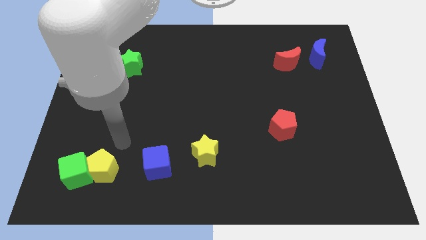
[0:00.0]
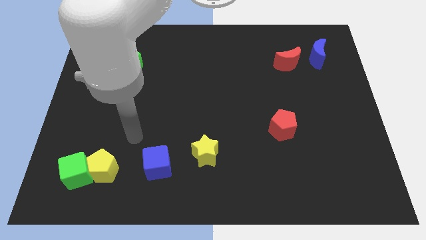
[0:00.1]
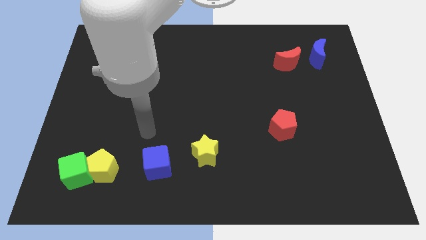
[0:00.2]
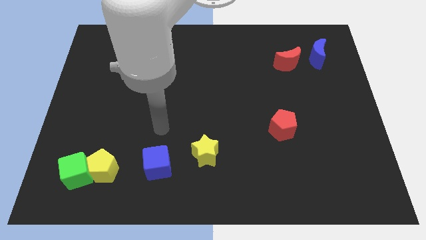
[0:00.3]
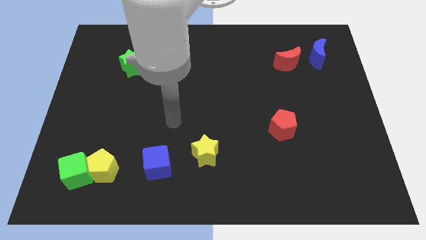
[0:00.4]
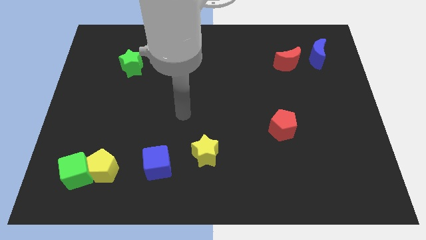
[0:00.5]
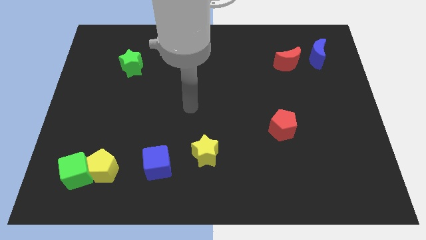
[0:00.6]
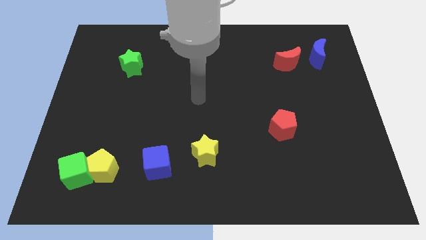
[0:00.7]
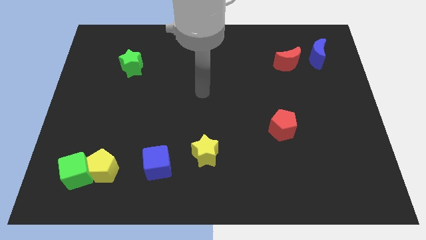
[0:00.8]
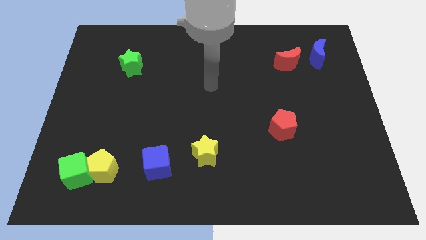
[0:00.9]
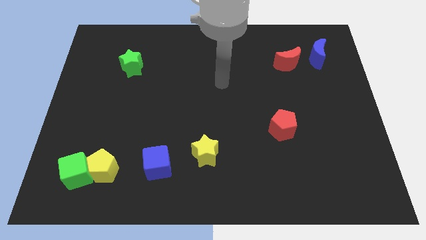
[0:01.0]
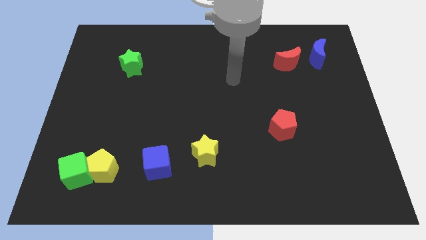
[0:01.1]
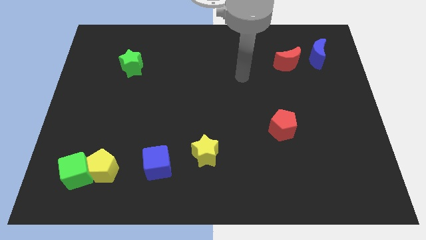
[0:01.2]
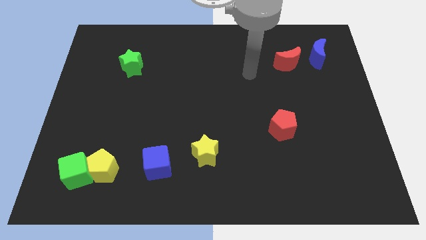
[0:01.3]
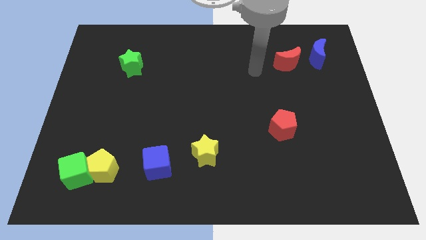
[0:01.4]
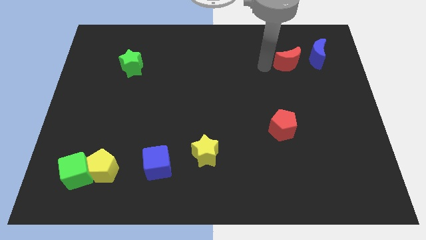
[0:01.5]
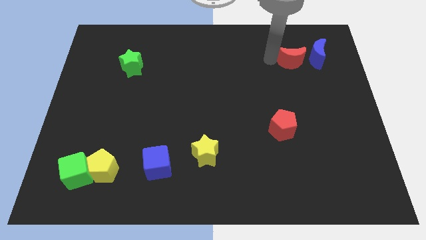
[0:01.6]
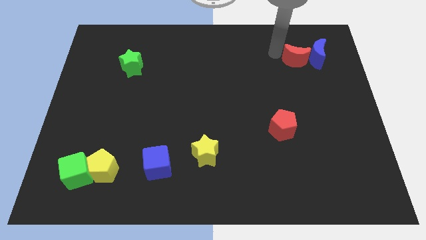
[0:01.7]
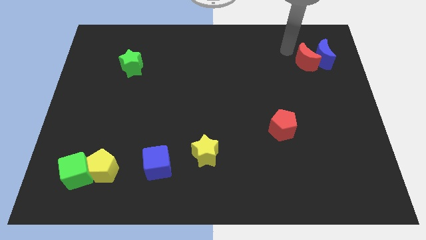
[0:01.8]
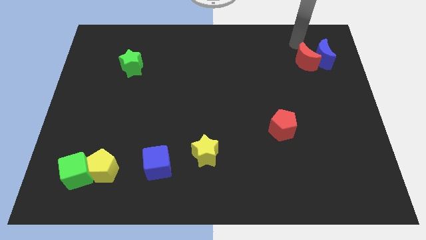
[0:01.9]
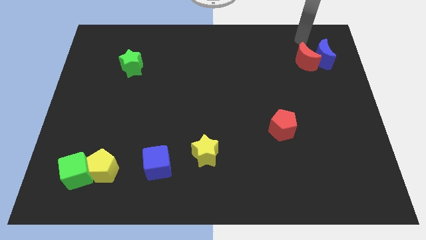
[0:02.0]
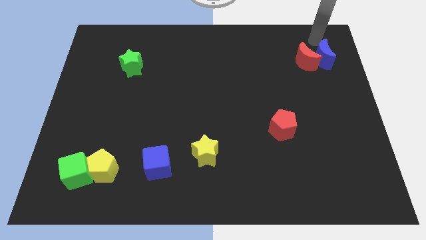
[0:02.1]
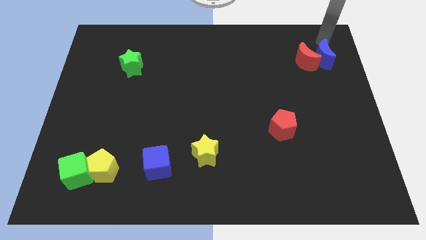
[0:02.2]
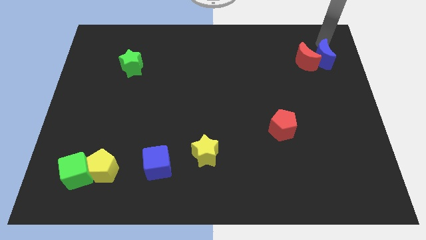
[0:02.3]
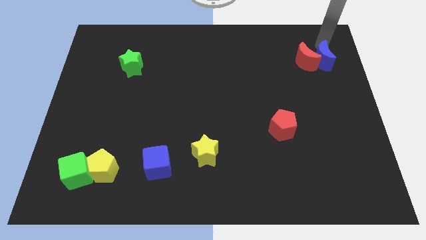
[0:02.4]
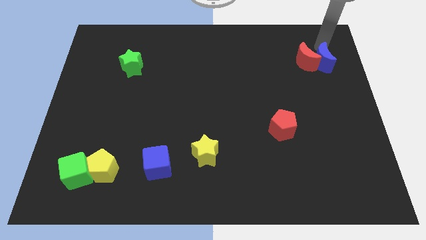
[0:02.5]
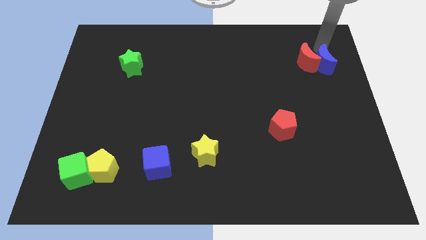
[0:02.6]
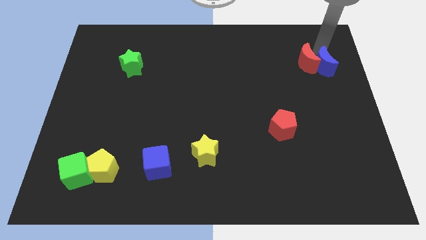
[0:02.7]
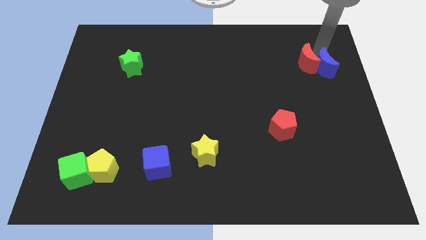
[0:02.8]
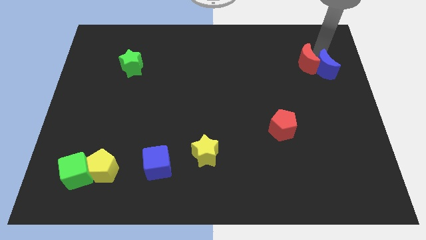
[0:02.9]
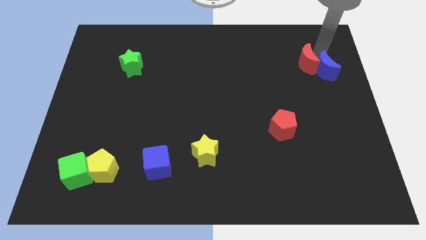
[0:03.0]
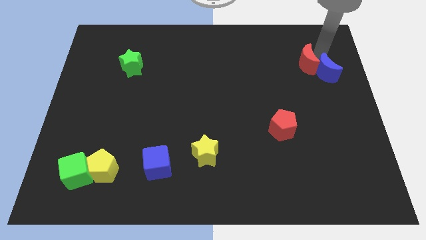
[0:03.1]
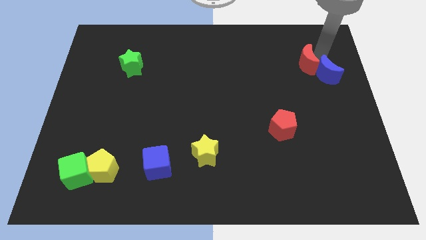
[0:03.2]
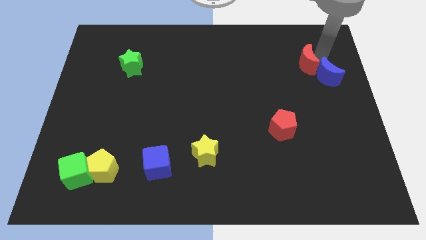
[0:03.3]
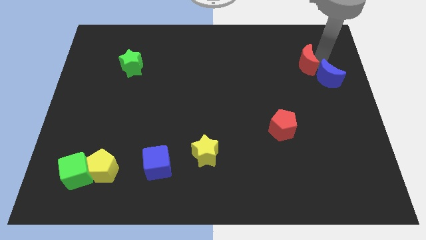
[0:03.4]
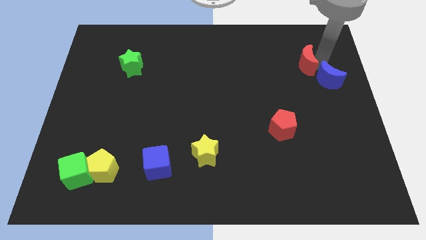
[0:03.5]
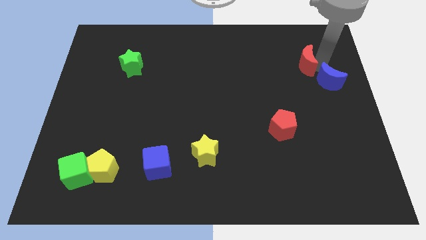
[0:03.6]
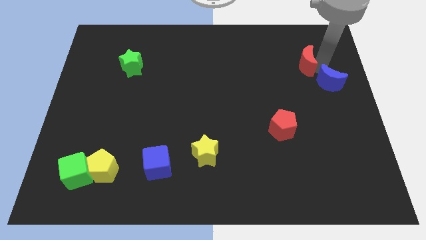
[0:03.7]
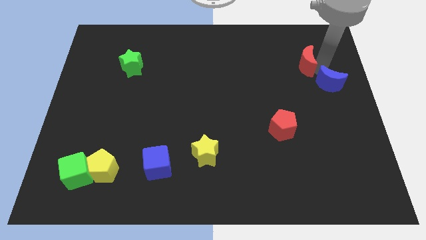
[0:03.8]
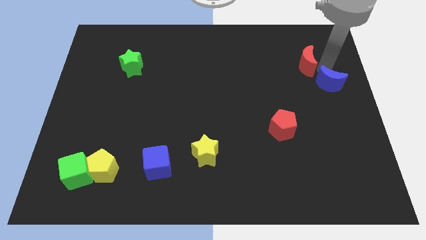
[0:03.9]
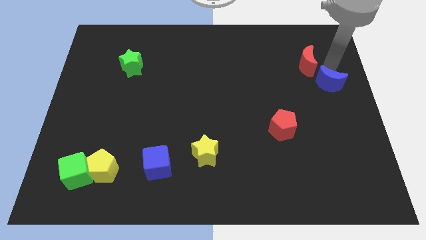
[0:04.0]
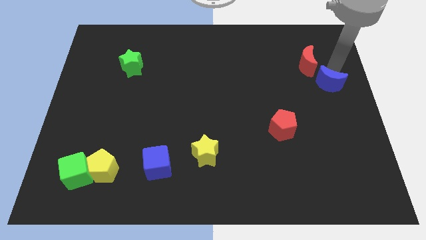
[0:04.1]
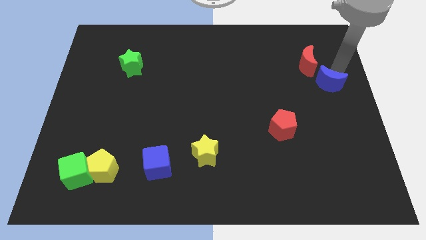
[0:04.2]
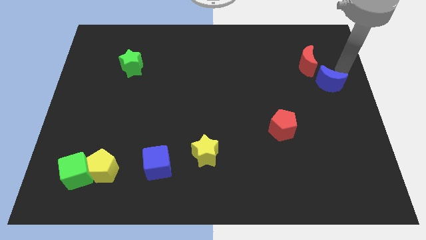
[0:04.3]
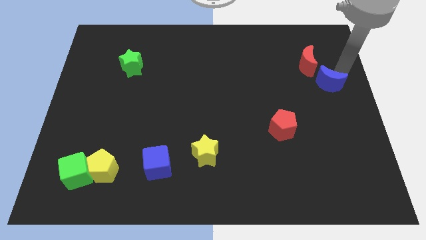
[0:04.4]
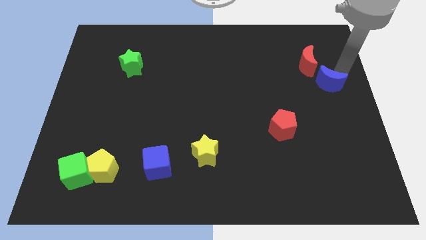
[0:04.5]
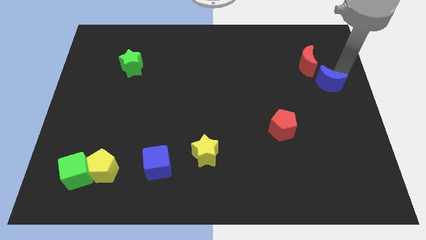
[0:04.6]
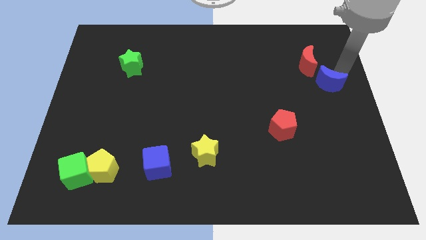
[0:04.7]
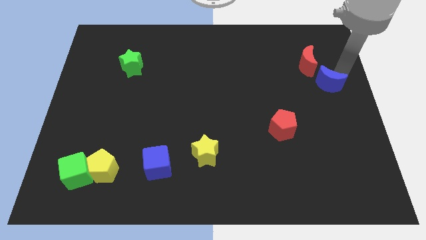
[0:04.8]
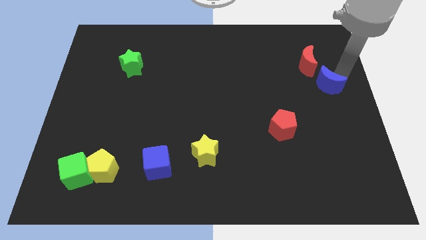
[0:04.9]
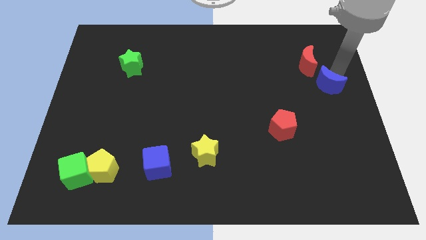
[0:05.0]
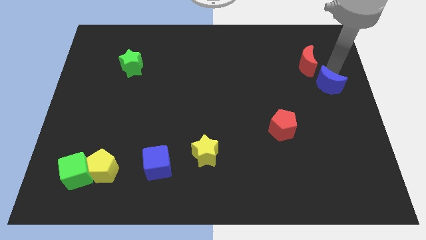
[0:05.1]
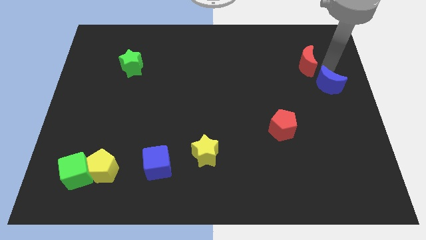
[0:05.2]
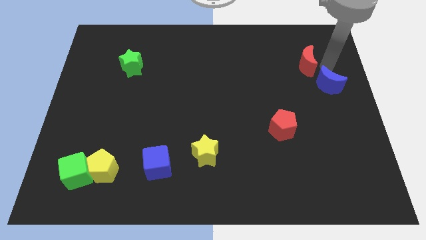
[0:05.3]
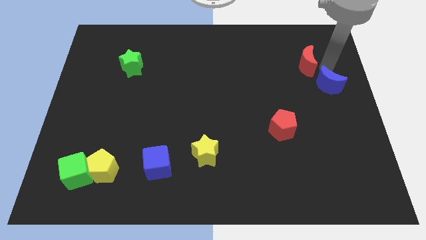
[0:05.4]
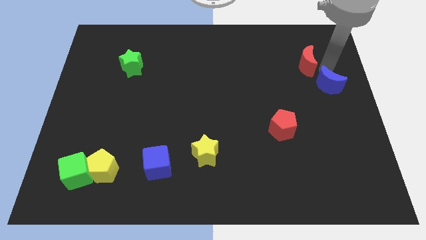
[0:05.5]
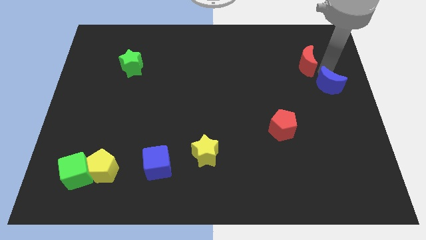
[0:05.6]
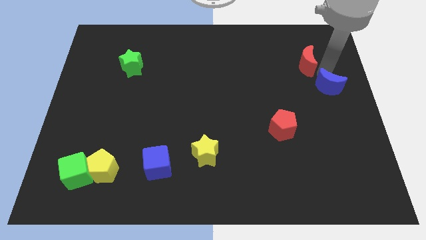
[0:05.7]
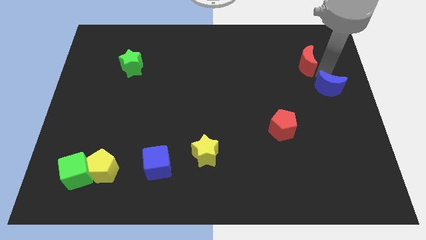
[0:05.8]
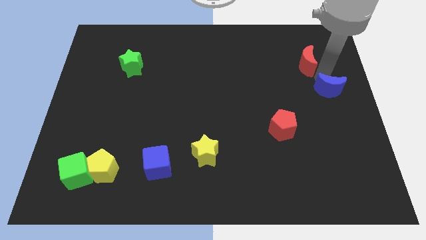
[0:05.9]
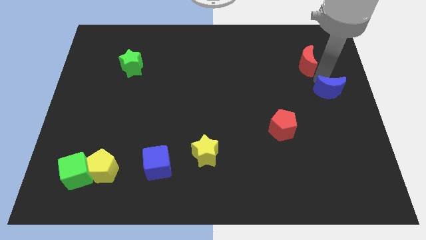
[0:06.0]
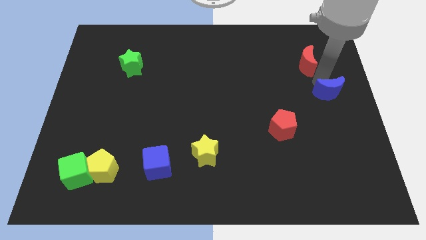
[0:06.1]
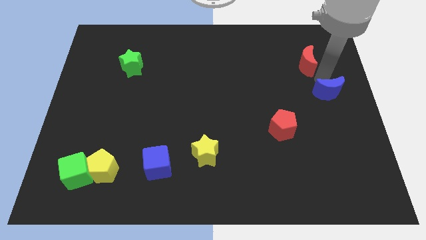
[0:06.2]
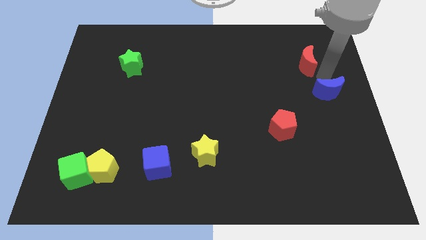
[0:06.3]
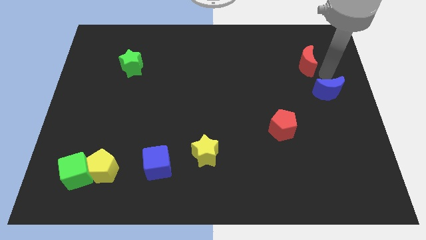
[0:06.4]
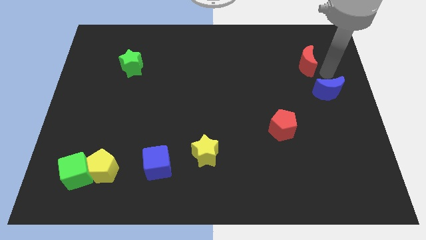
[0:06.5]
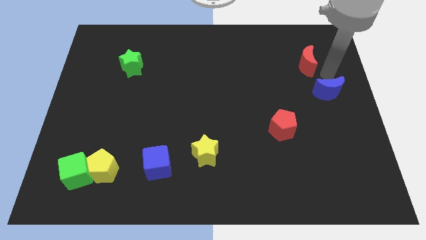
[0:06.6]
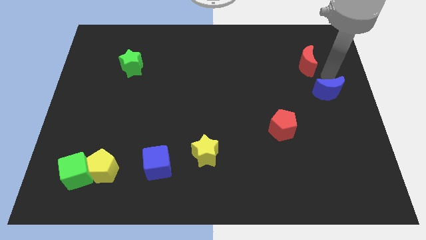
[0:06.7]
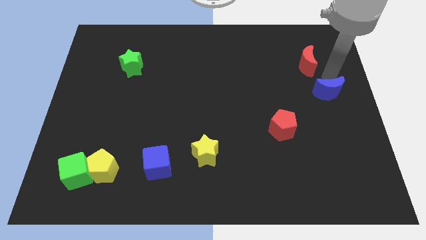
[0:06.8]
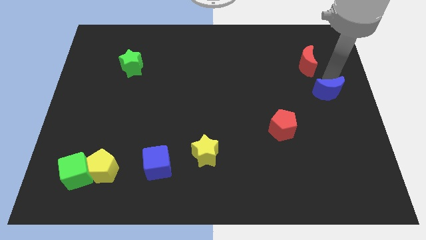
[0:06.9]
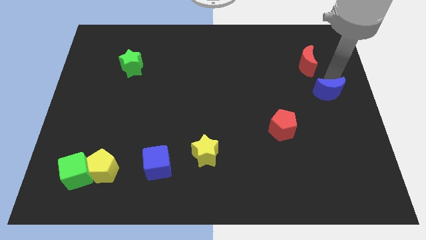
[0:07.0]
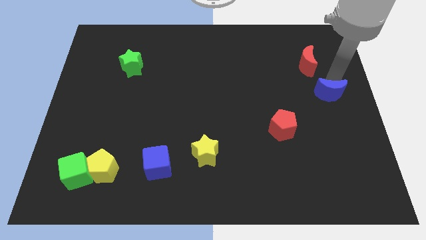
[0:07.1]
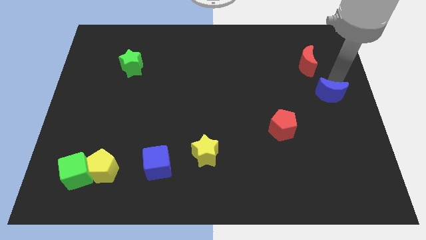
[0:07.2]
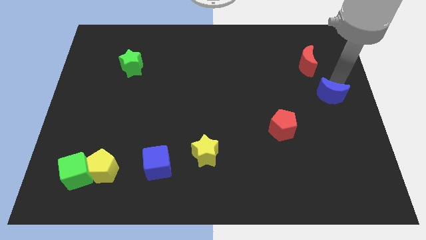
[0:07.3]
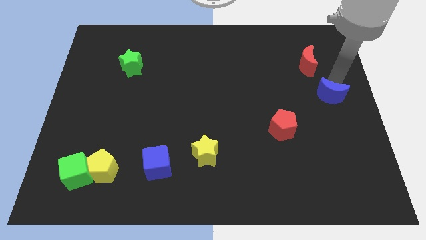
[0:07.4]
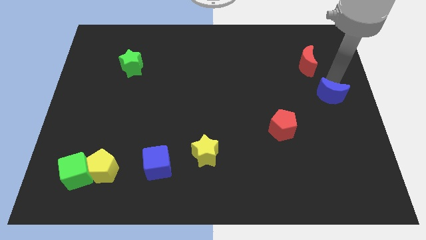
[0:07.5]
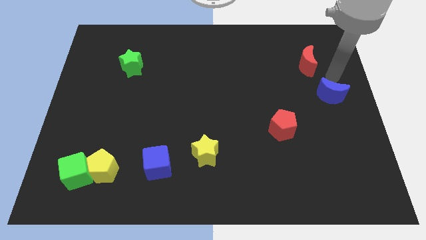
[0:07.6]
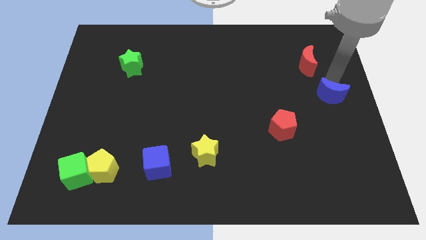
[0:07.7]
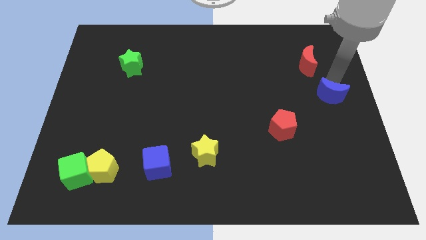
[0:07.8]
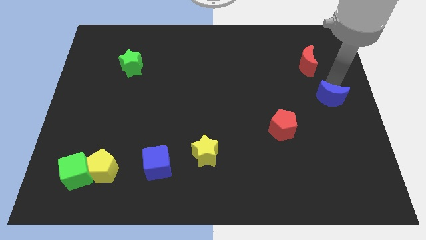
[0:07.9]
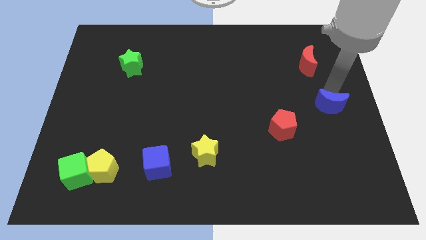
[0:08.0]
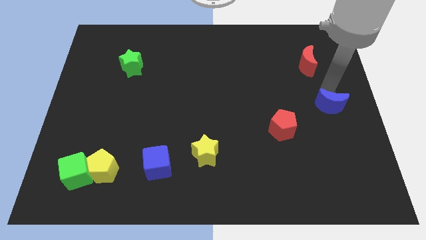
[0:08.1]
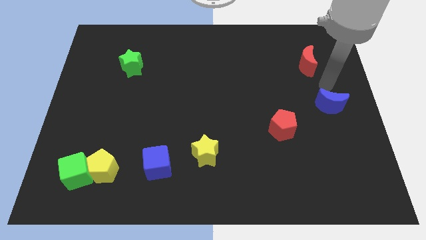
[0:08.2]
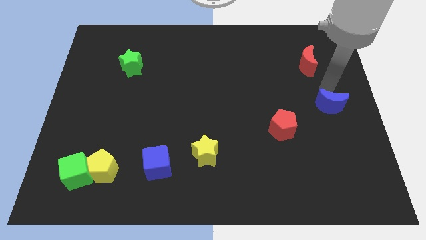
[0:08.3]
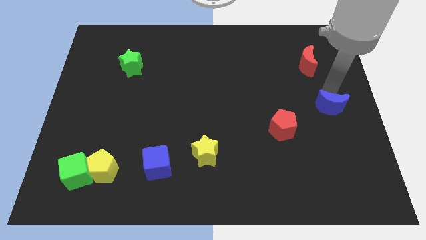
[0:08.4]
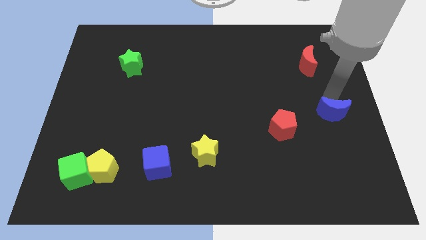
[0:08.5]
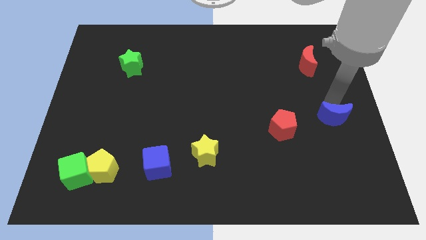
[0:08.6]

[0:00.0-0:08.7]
push the blue moon down
